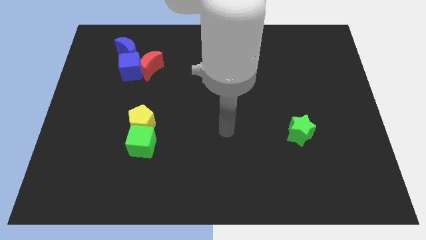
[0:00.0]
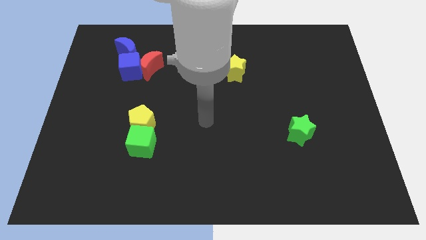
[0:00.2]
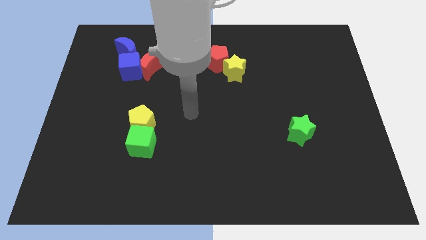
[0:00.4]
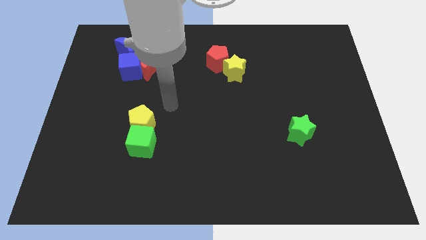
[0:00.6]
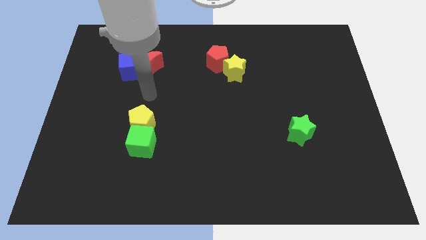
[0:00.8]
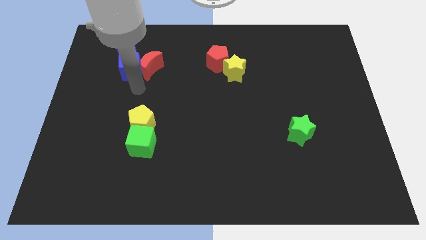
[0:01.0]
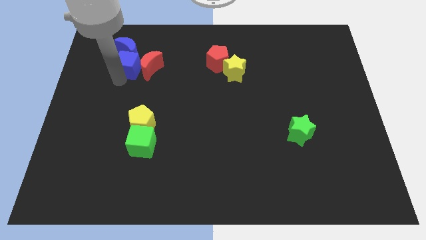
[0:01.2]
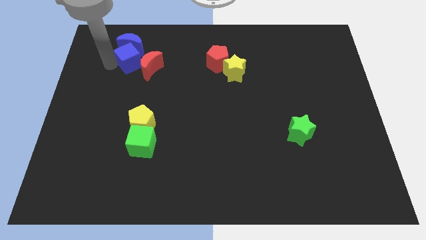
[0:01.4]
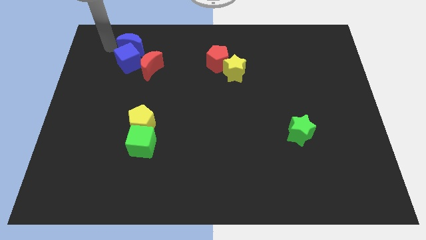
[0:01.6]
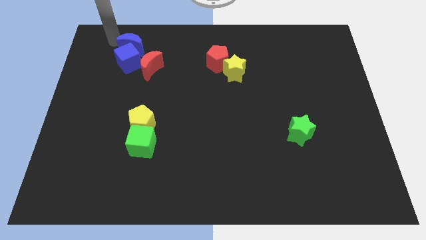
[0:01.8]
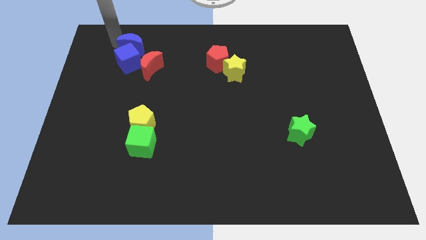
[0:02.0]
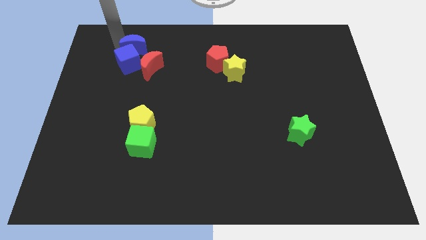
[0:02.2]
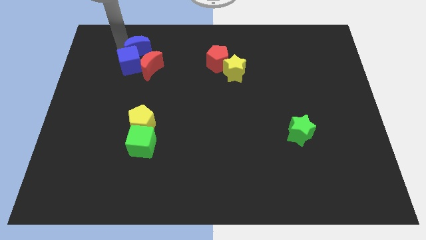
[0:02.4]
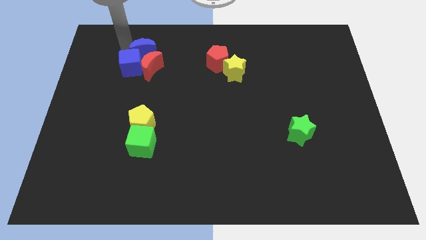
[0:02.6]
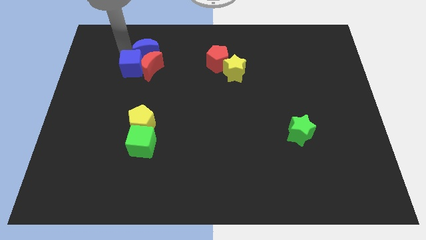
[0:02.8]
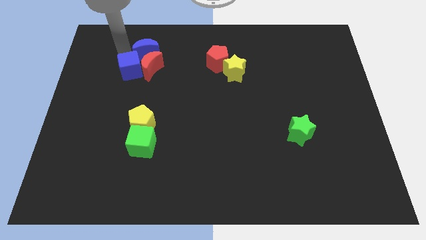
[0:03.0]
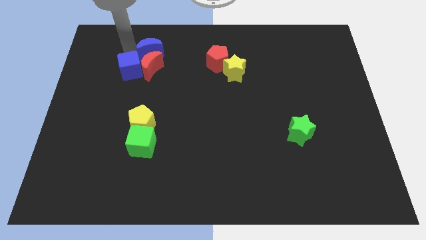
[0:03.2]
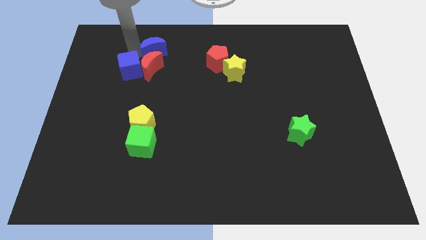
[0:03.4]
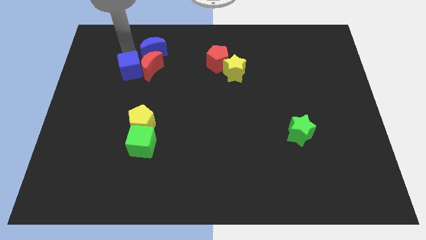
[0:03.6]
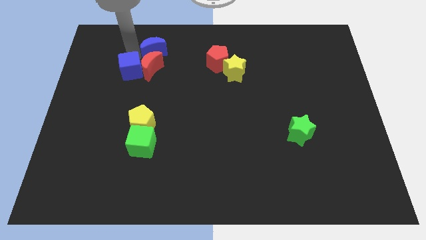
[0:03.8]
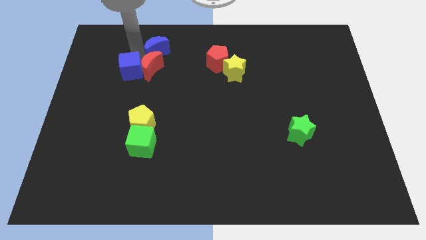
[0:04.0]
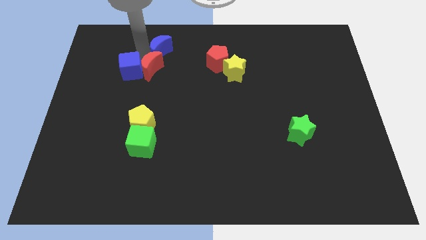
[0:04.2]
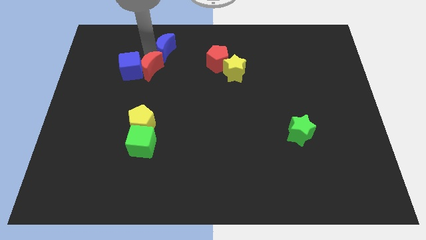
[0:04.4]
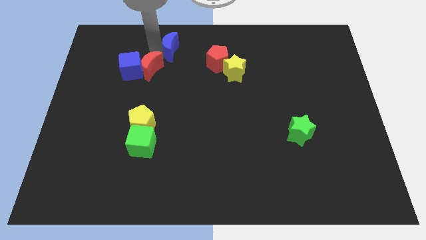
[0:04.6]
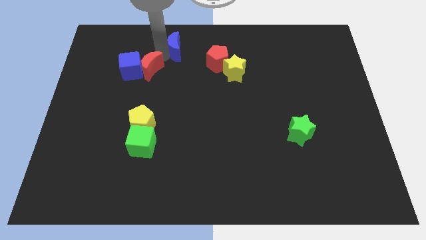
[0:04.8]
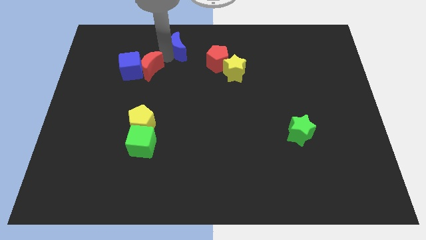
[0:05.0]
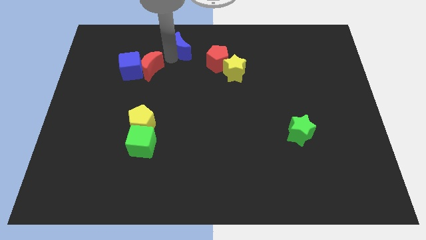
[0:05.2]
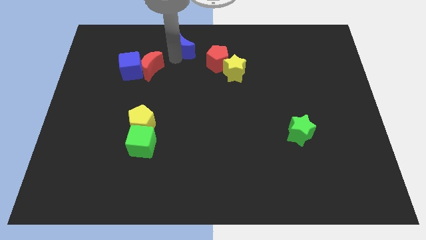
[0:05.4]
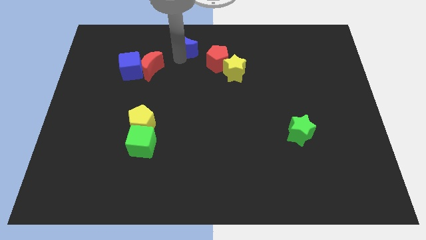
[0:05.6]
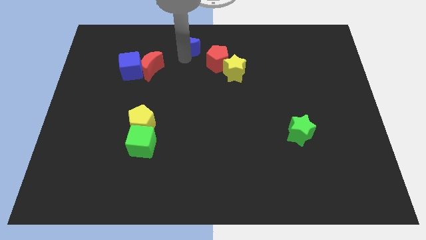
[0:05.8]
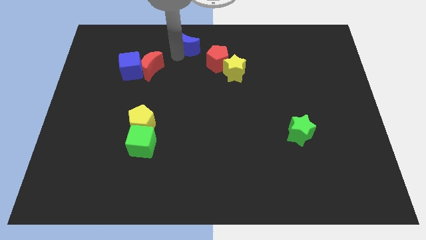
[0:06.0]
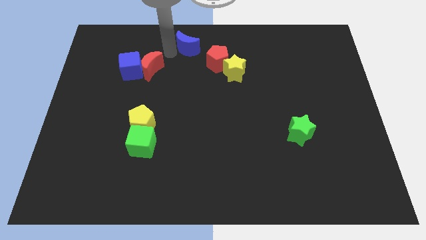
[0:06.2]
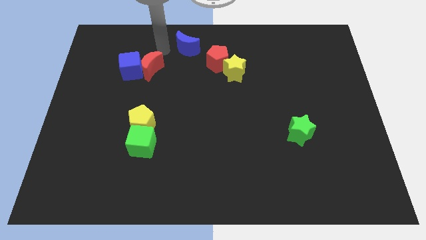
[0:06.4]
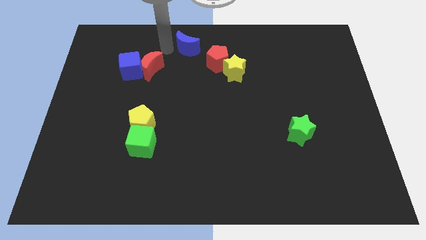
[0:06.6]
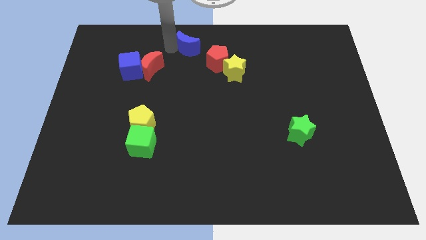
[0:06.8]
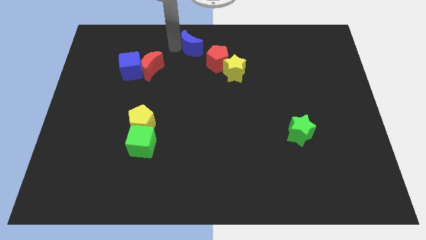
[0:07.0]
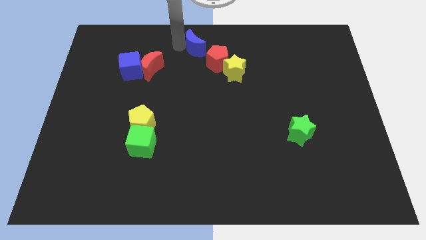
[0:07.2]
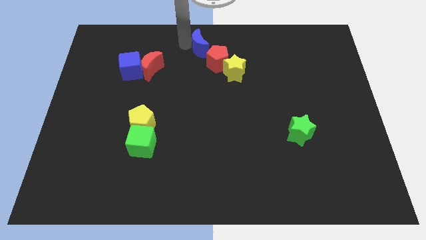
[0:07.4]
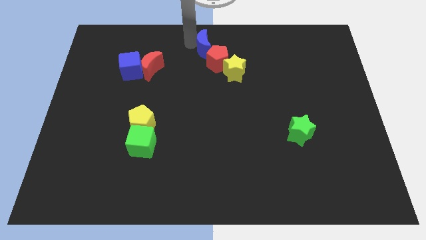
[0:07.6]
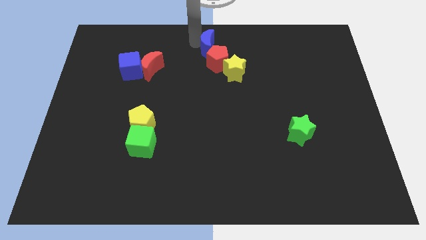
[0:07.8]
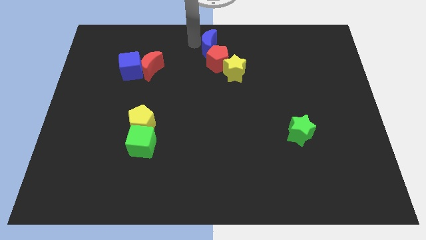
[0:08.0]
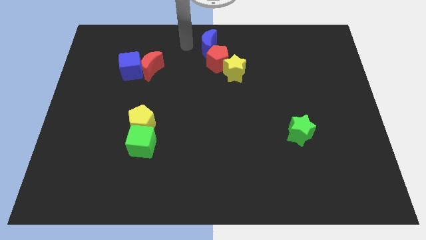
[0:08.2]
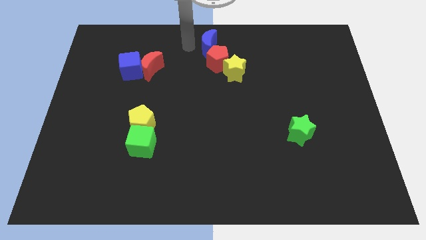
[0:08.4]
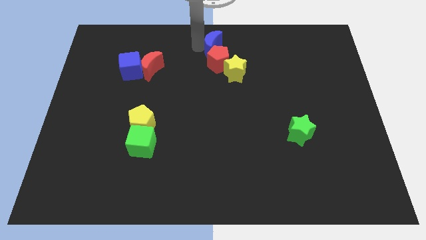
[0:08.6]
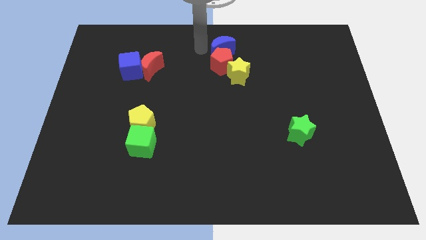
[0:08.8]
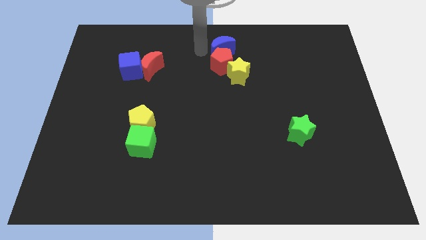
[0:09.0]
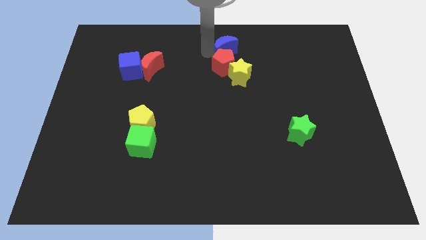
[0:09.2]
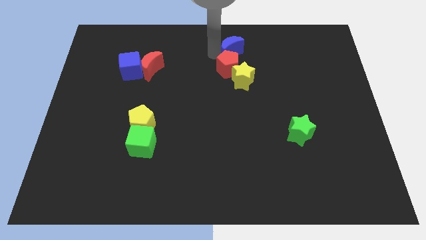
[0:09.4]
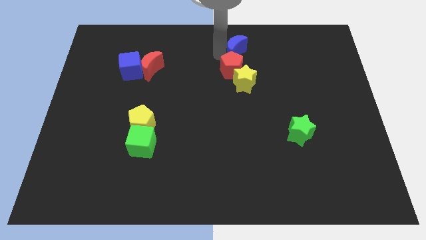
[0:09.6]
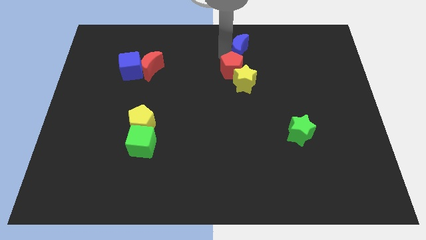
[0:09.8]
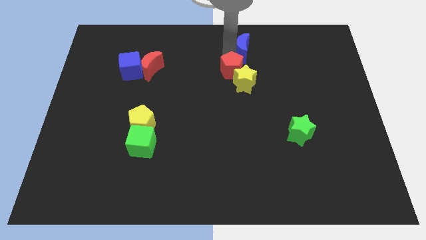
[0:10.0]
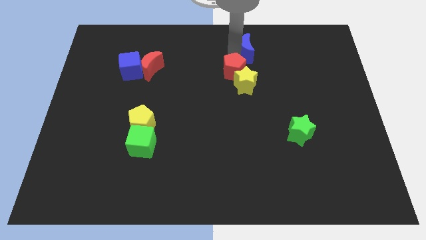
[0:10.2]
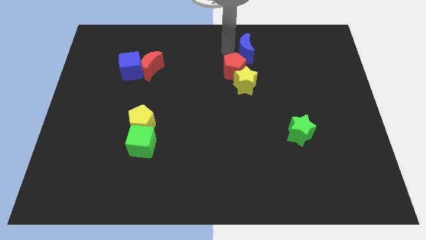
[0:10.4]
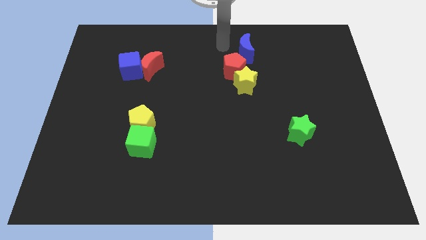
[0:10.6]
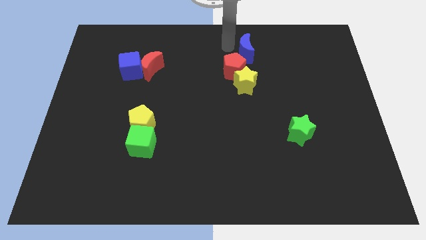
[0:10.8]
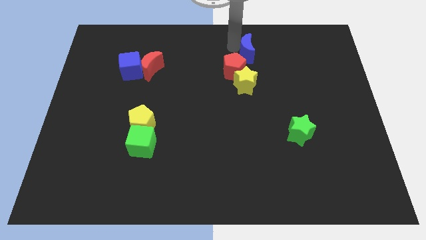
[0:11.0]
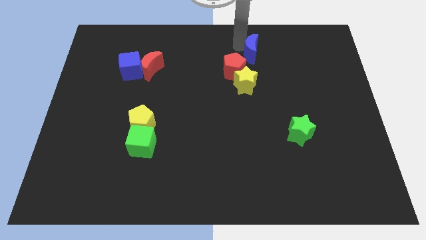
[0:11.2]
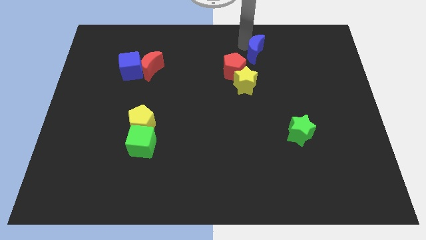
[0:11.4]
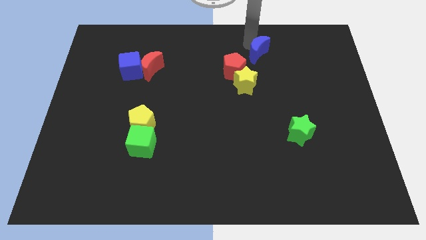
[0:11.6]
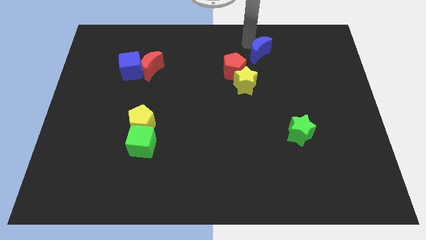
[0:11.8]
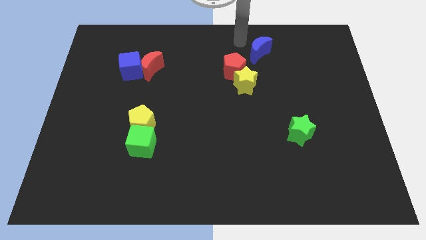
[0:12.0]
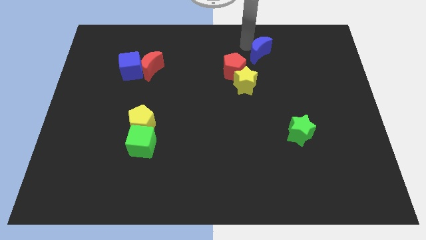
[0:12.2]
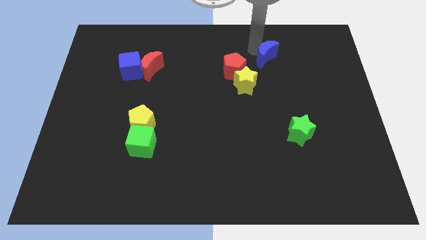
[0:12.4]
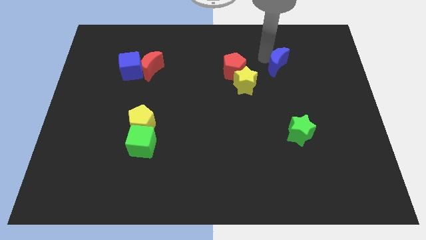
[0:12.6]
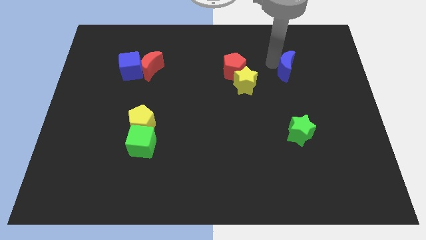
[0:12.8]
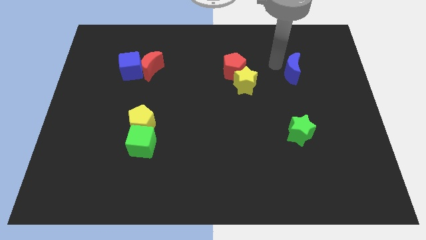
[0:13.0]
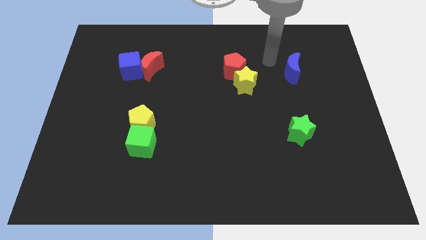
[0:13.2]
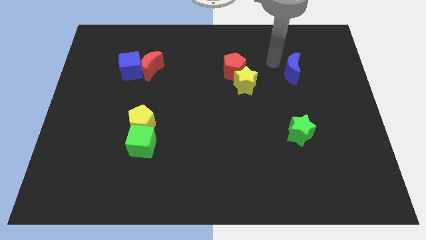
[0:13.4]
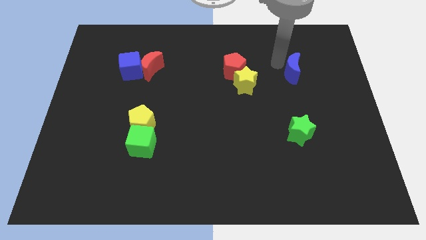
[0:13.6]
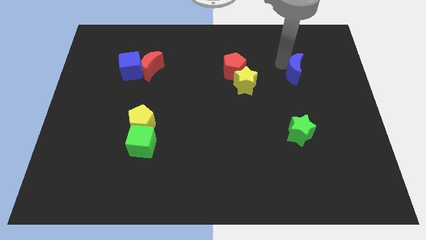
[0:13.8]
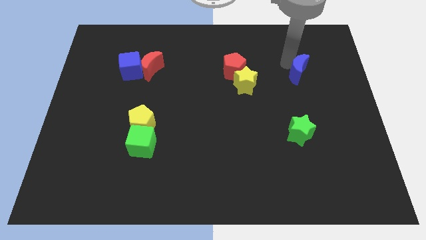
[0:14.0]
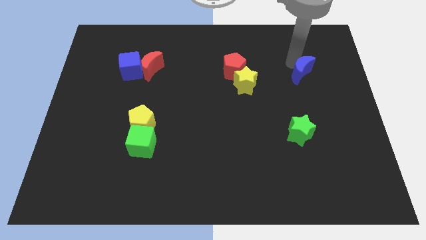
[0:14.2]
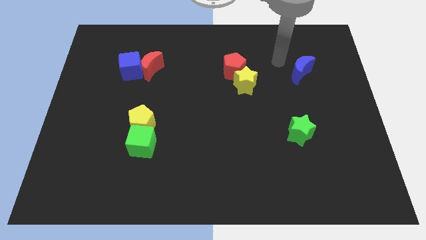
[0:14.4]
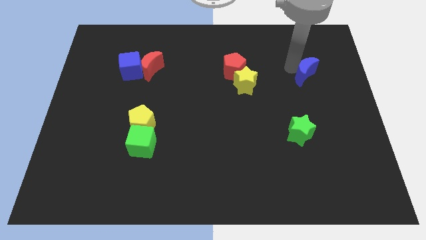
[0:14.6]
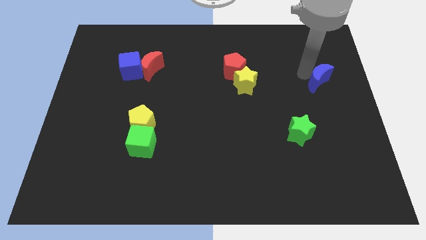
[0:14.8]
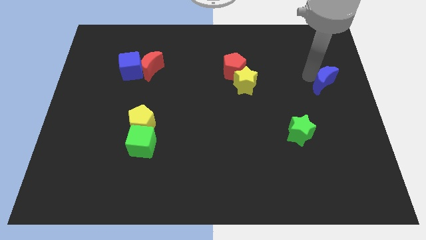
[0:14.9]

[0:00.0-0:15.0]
put the blue moon to the center right
